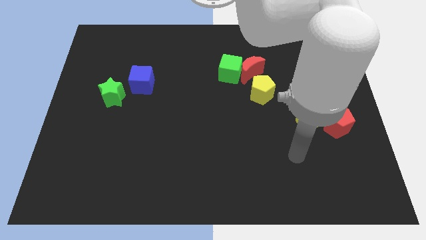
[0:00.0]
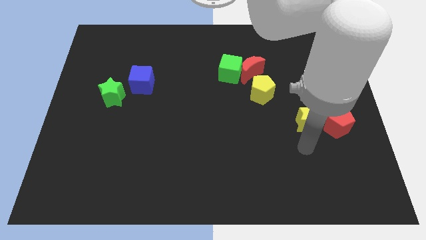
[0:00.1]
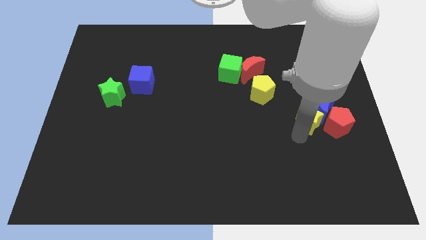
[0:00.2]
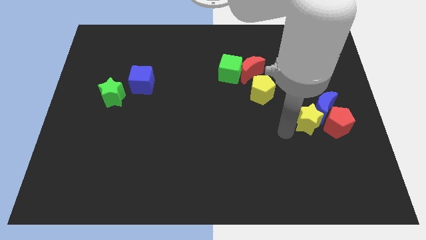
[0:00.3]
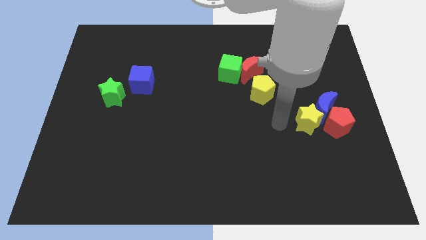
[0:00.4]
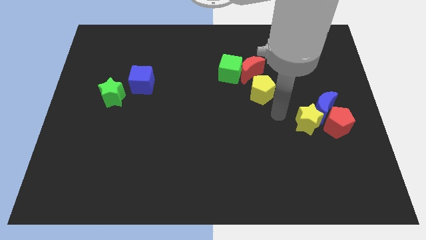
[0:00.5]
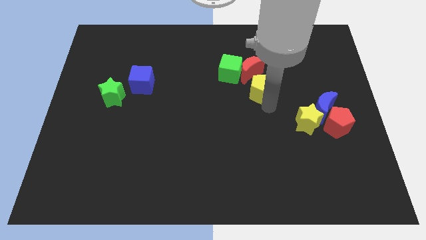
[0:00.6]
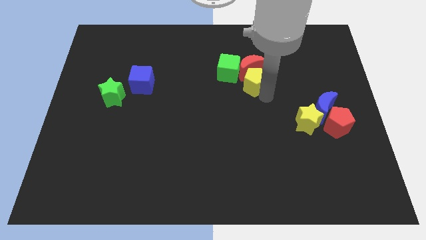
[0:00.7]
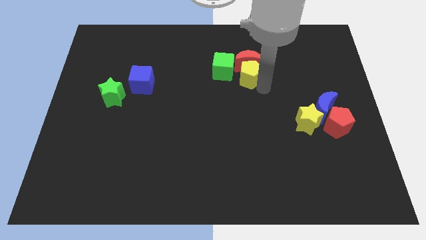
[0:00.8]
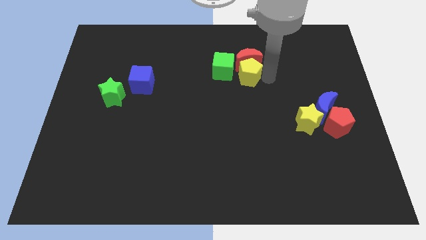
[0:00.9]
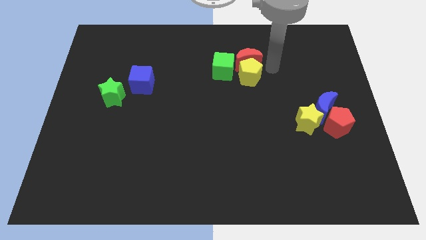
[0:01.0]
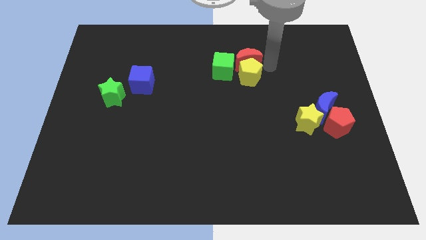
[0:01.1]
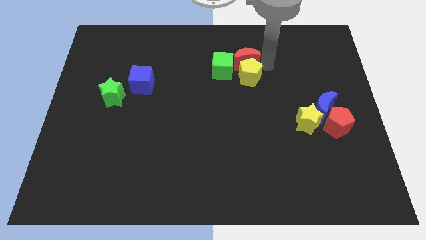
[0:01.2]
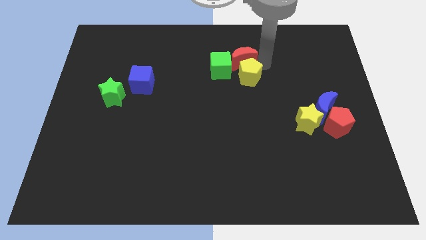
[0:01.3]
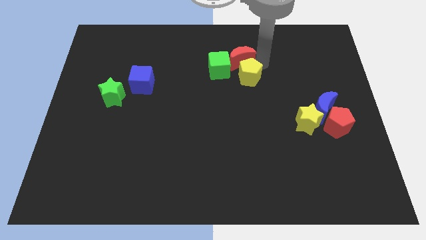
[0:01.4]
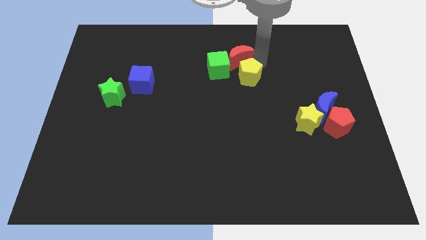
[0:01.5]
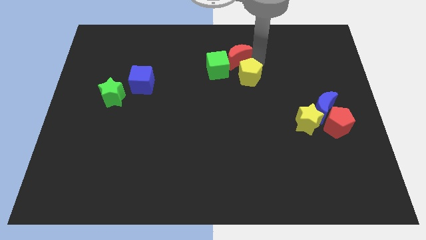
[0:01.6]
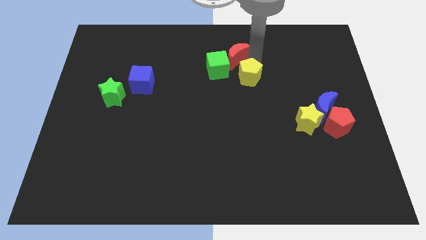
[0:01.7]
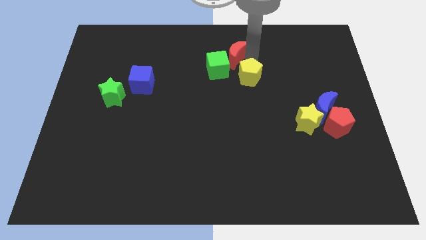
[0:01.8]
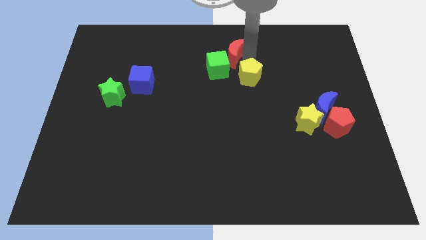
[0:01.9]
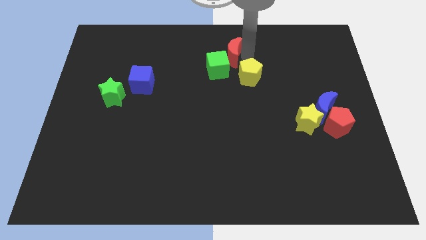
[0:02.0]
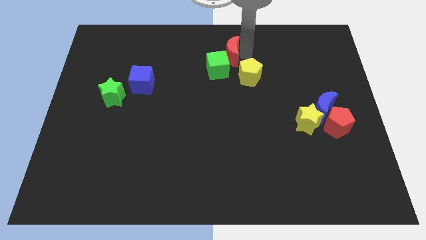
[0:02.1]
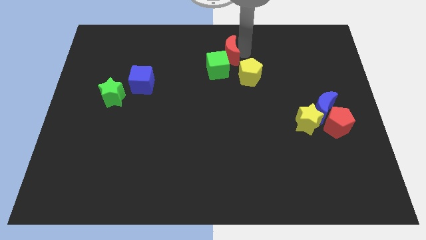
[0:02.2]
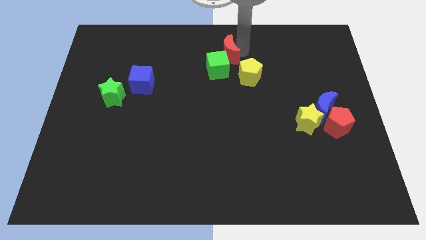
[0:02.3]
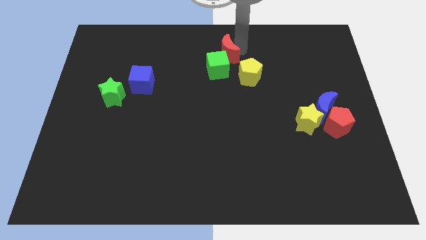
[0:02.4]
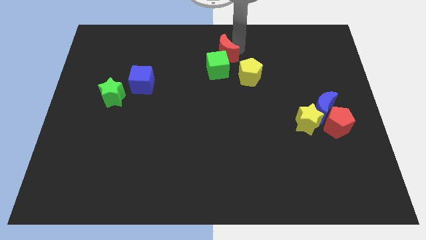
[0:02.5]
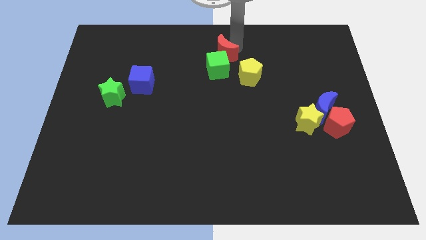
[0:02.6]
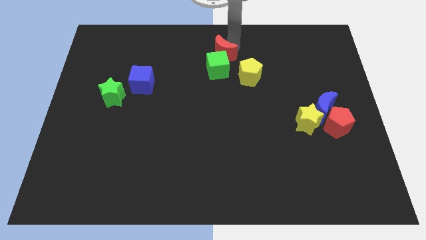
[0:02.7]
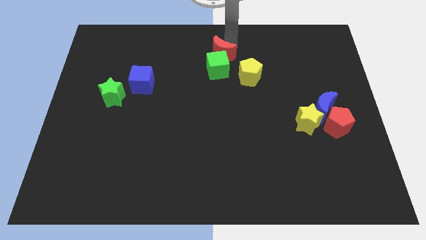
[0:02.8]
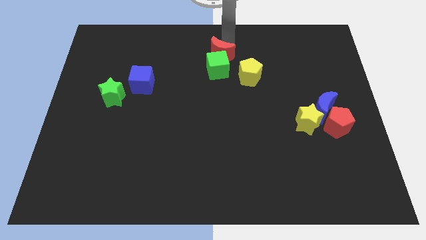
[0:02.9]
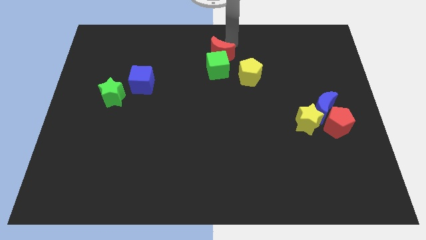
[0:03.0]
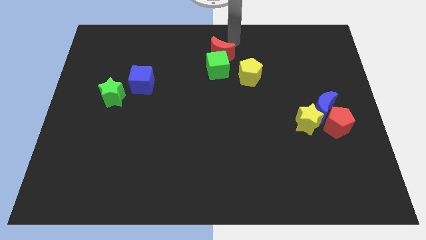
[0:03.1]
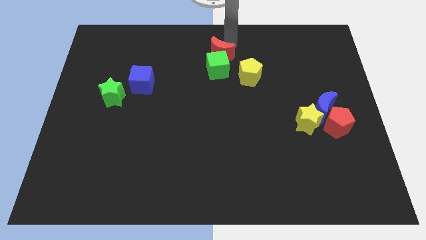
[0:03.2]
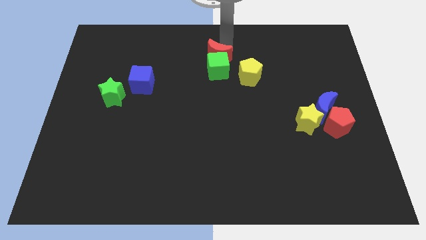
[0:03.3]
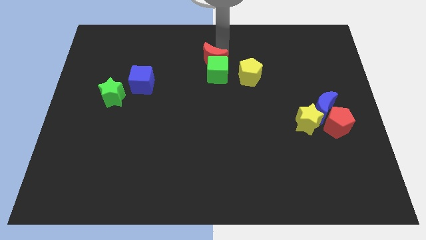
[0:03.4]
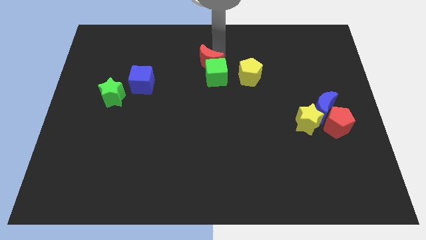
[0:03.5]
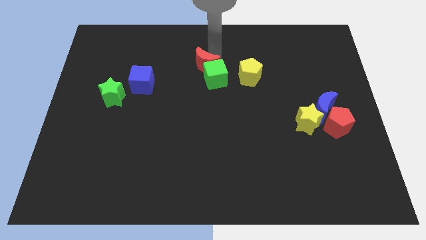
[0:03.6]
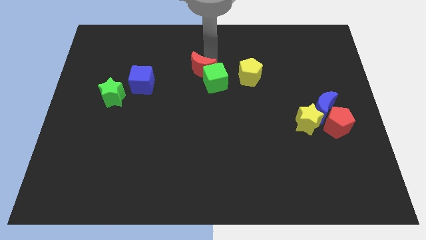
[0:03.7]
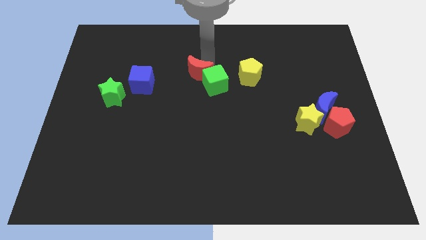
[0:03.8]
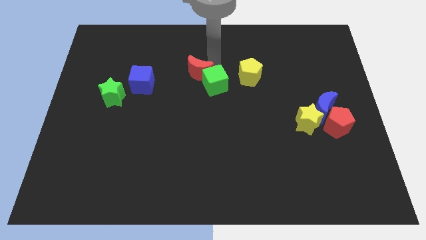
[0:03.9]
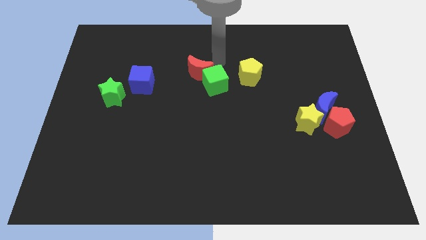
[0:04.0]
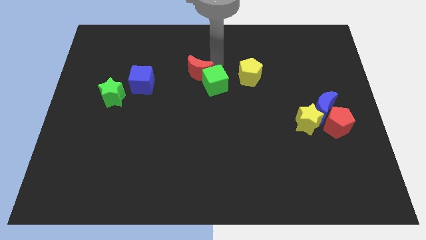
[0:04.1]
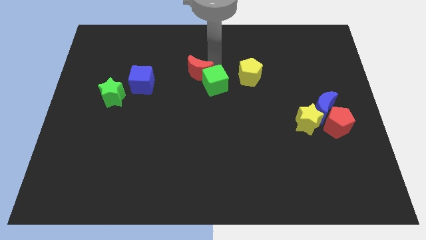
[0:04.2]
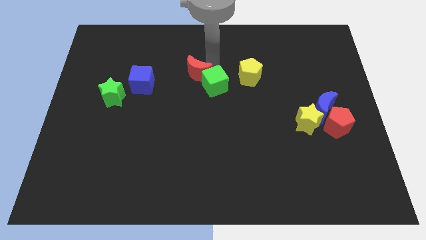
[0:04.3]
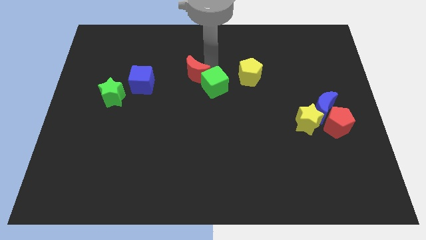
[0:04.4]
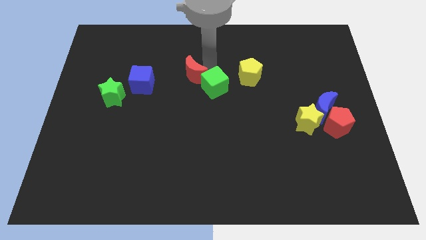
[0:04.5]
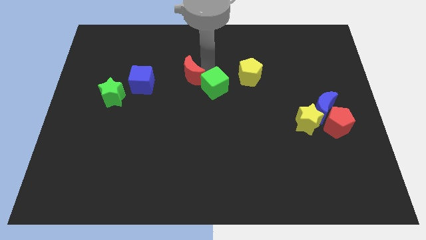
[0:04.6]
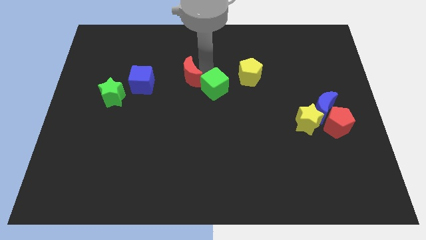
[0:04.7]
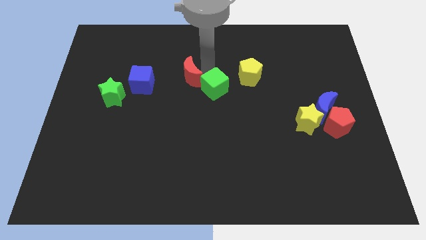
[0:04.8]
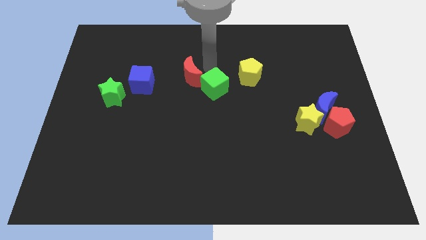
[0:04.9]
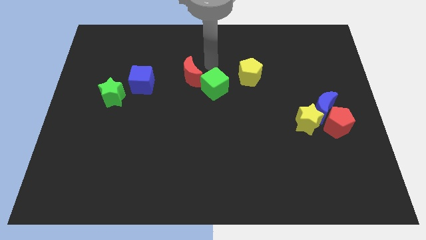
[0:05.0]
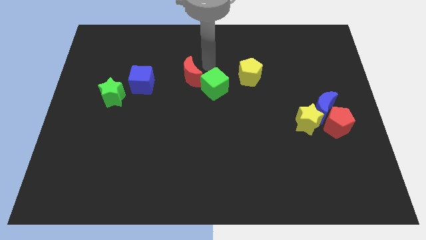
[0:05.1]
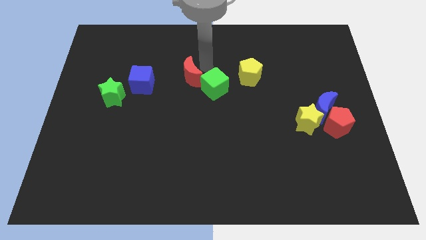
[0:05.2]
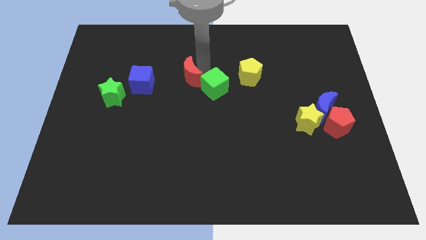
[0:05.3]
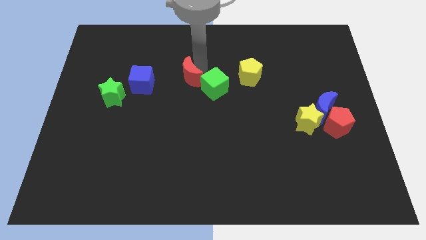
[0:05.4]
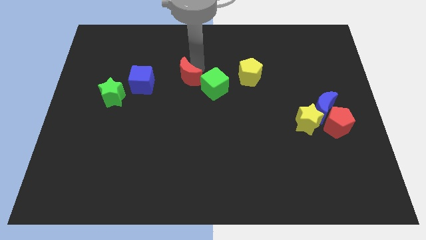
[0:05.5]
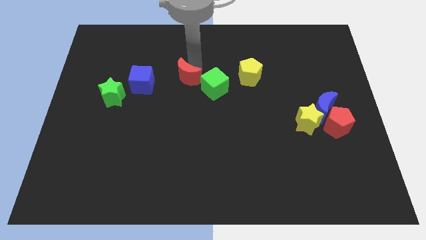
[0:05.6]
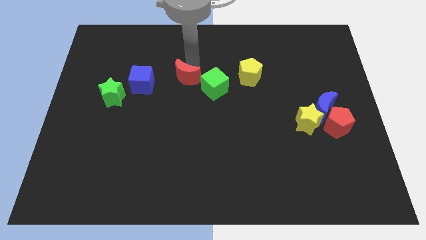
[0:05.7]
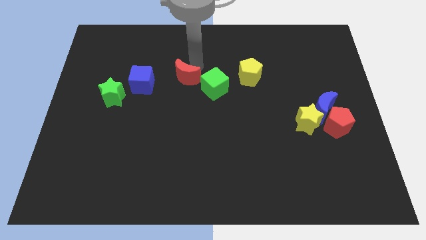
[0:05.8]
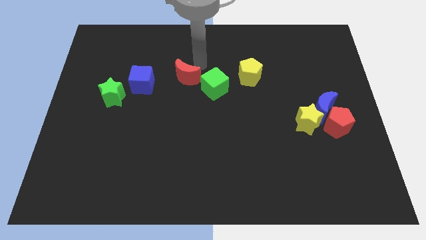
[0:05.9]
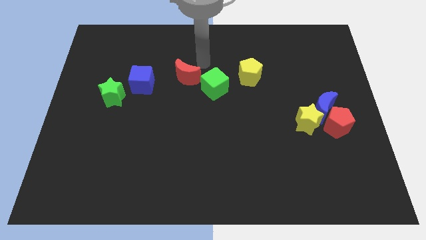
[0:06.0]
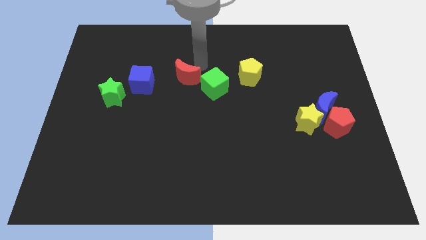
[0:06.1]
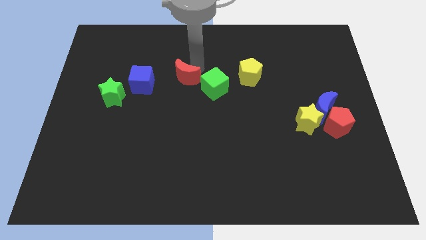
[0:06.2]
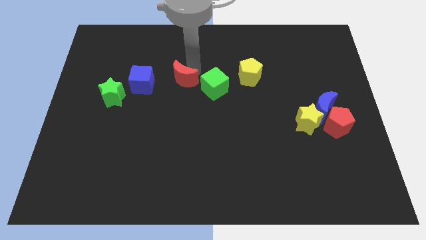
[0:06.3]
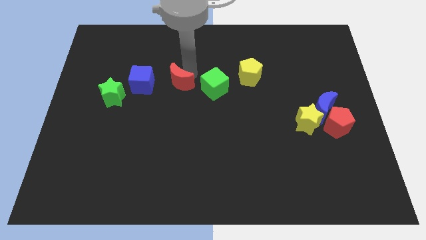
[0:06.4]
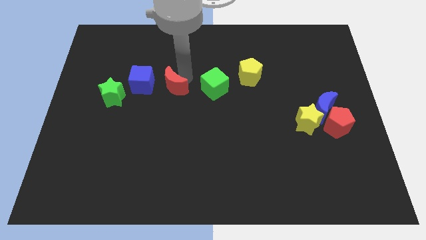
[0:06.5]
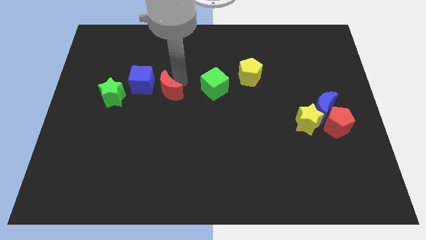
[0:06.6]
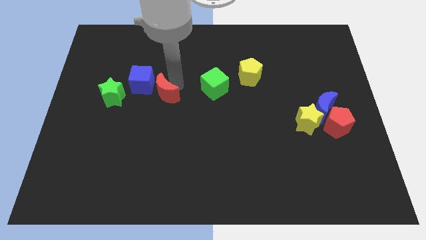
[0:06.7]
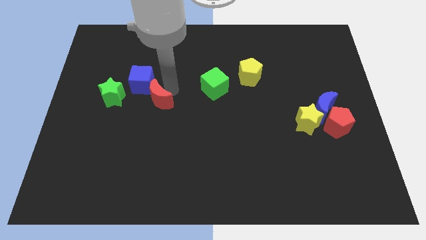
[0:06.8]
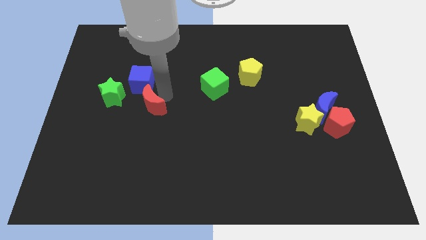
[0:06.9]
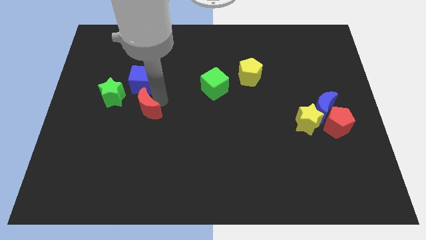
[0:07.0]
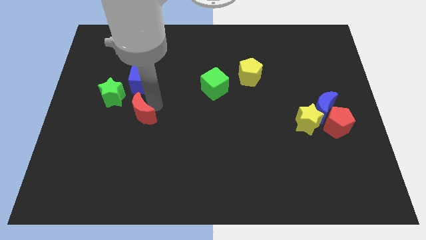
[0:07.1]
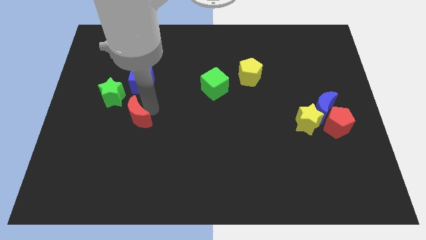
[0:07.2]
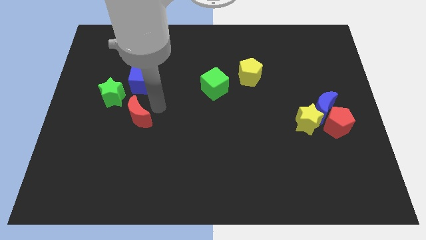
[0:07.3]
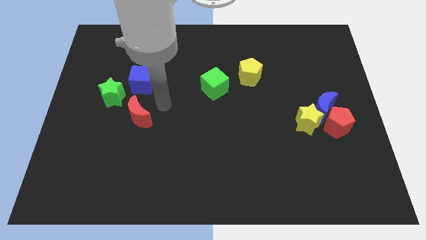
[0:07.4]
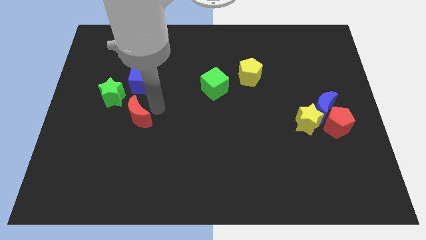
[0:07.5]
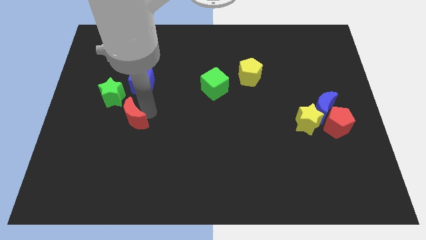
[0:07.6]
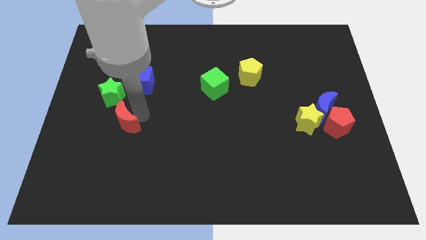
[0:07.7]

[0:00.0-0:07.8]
move the red moon below the green star
